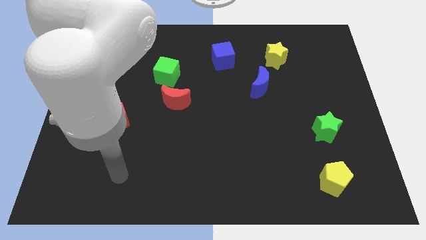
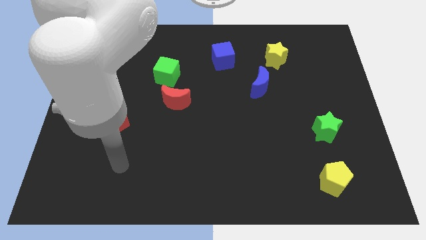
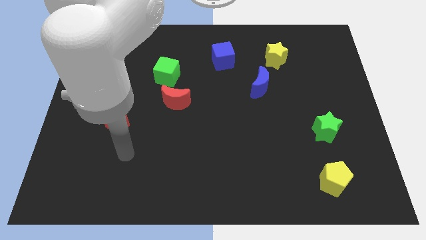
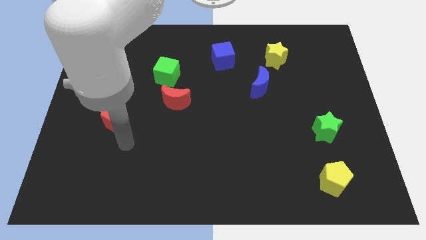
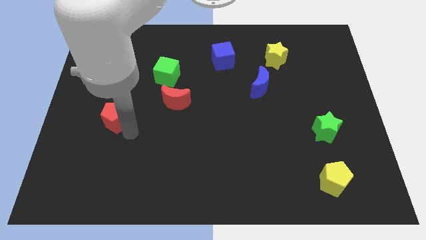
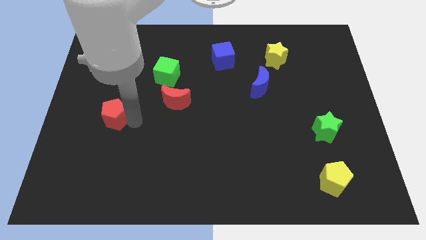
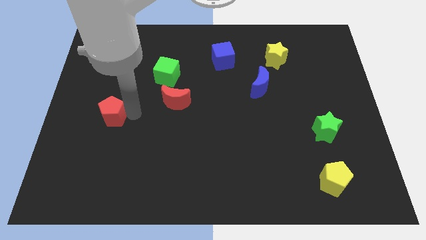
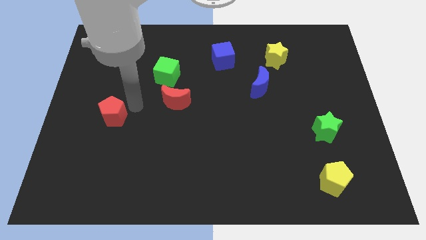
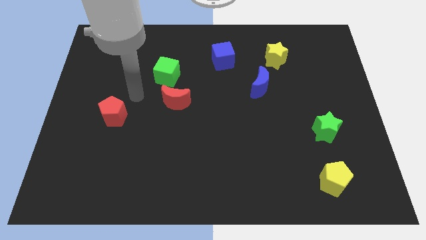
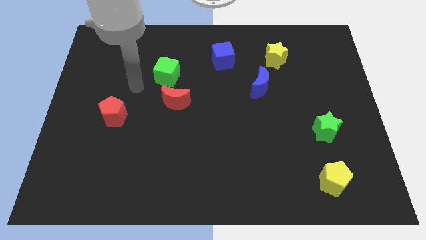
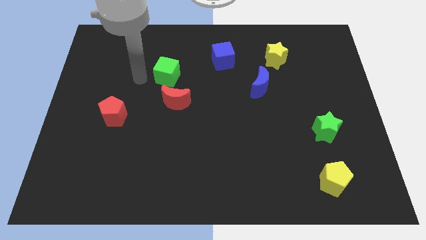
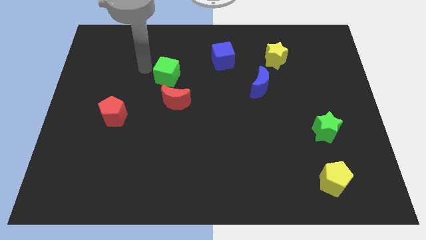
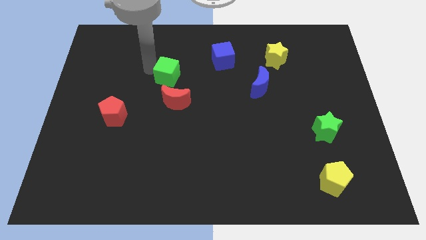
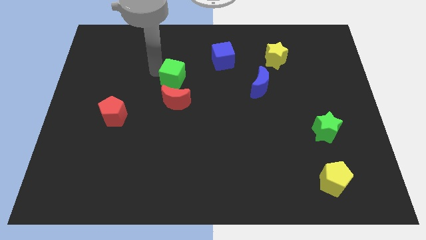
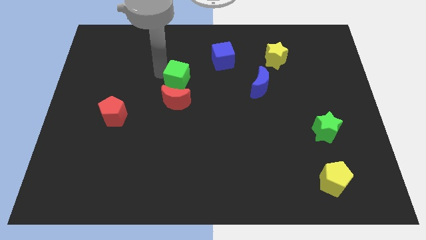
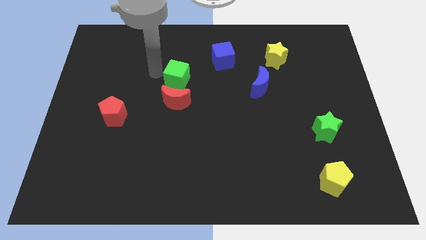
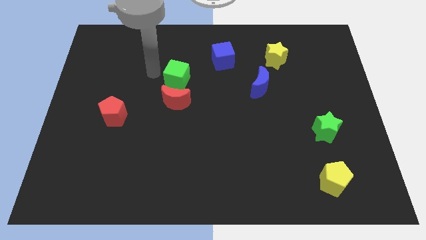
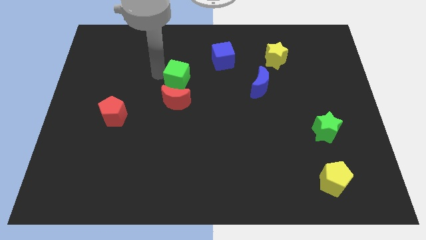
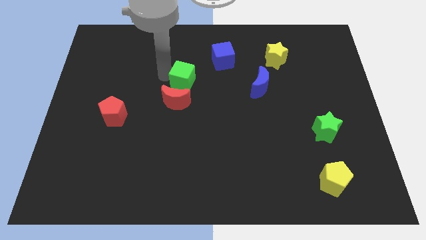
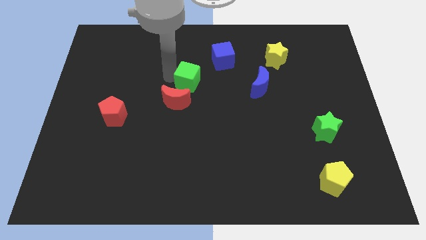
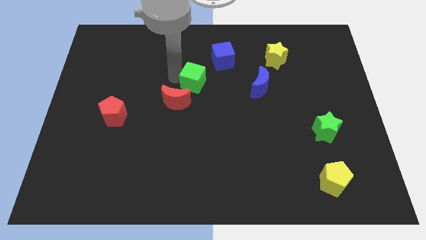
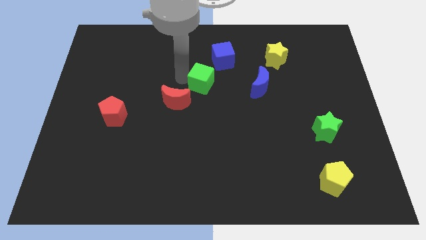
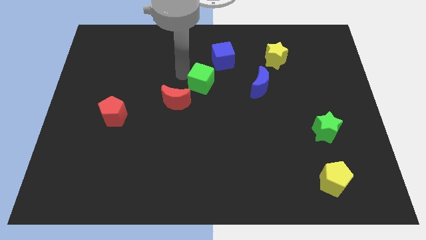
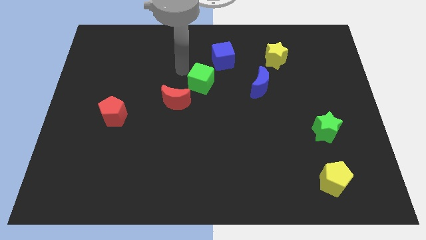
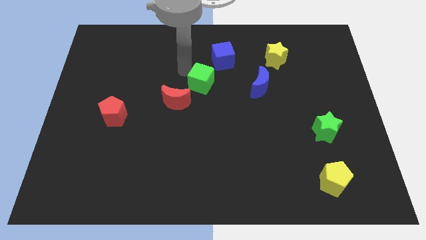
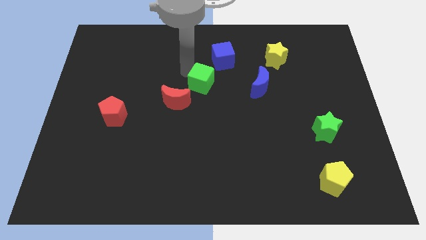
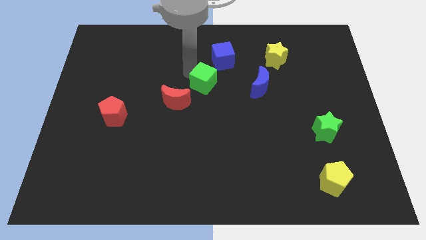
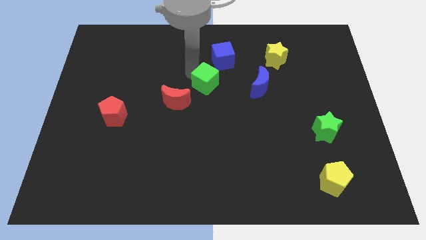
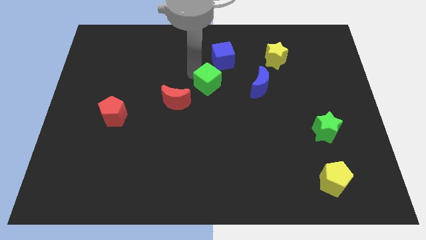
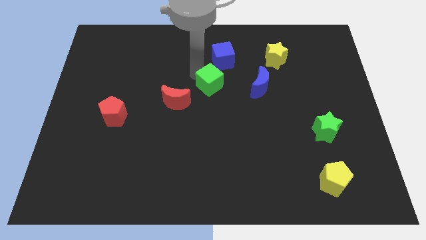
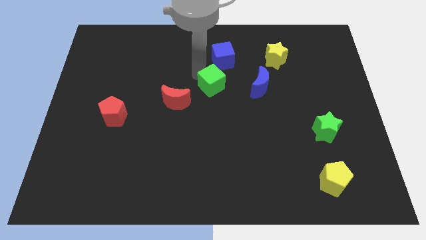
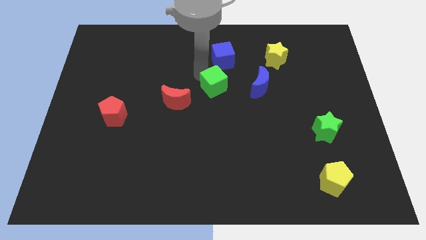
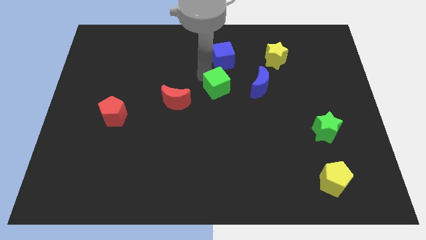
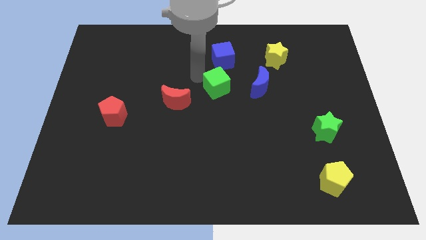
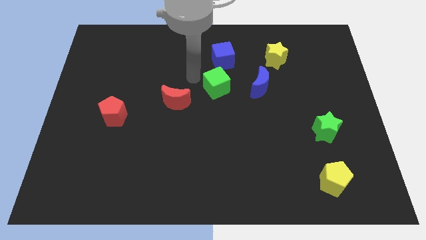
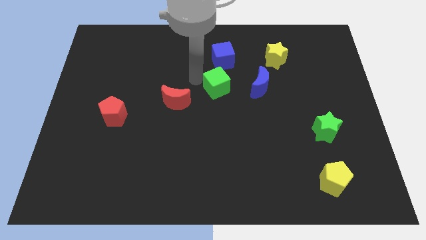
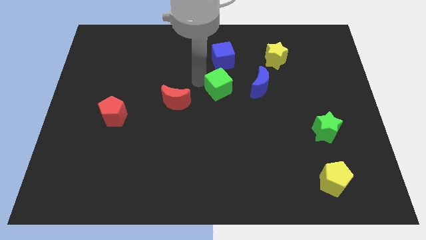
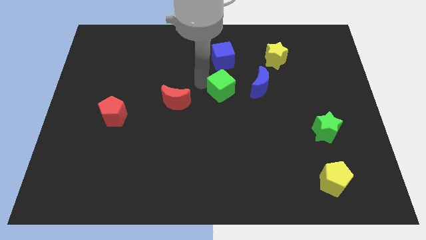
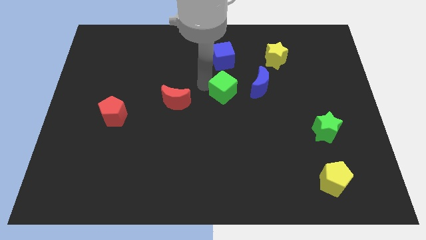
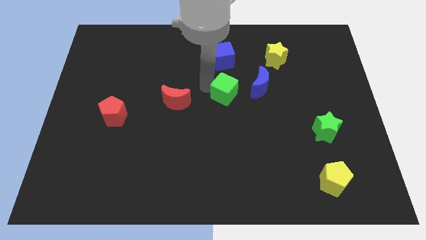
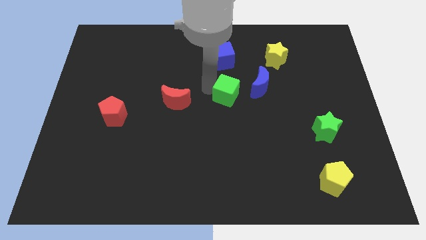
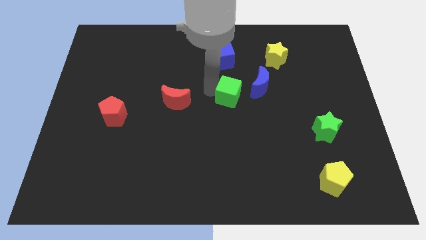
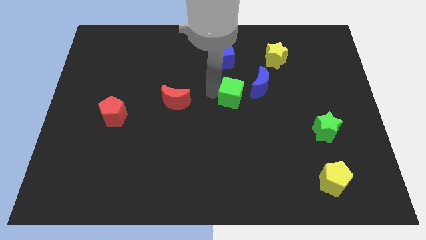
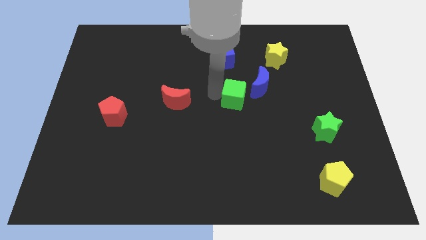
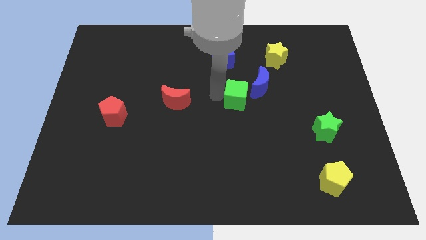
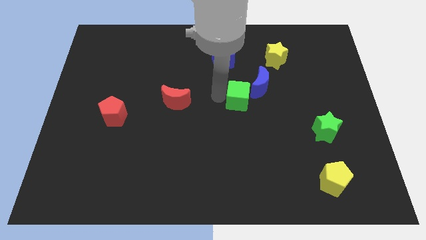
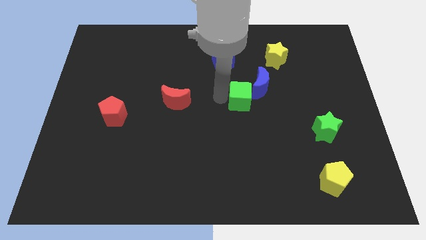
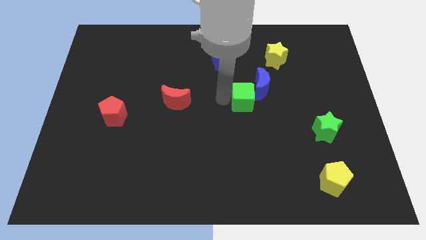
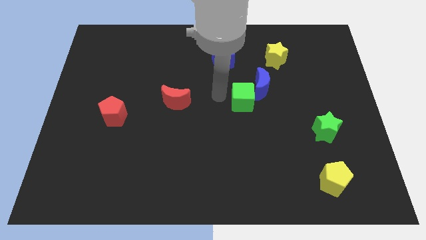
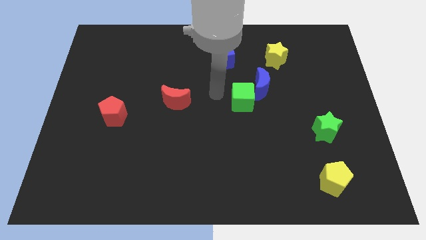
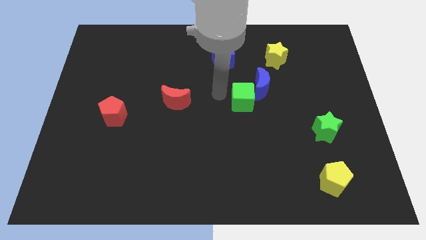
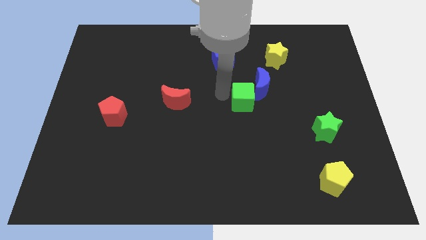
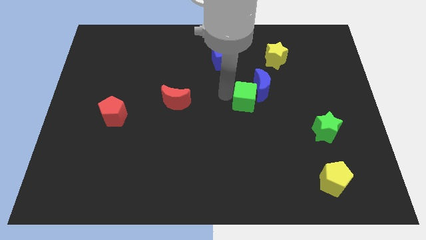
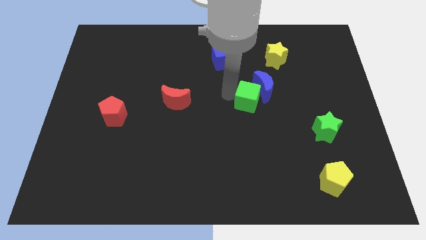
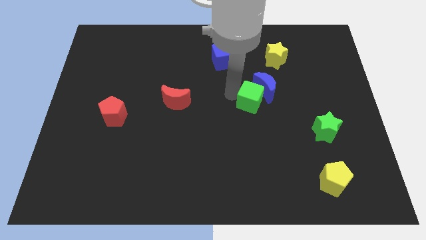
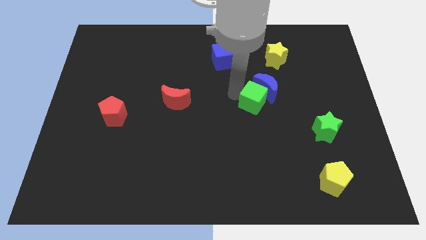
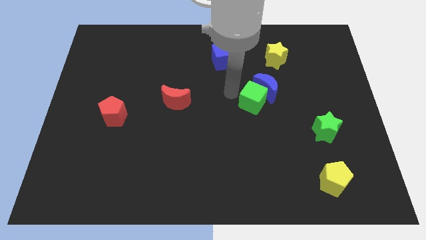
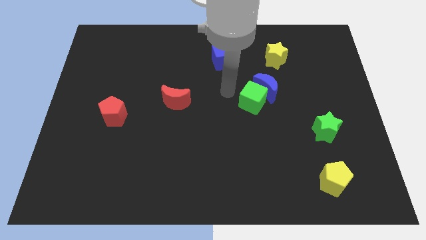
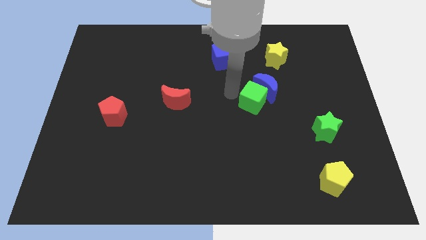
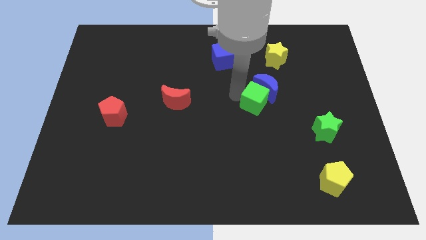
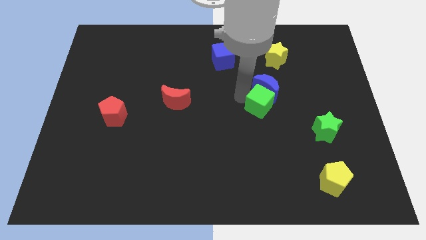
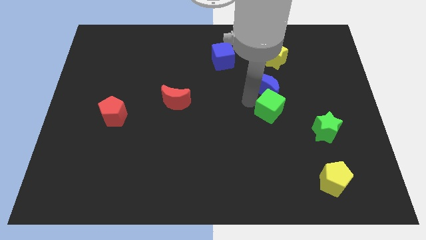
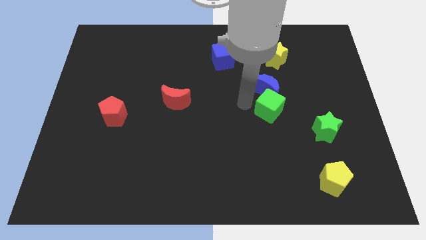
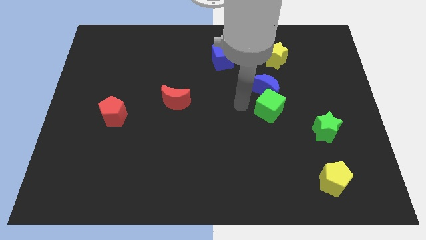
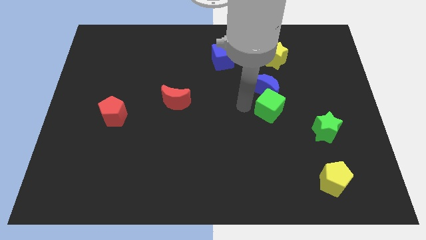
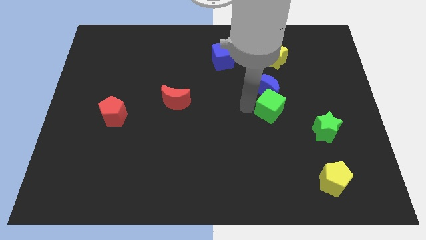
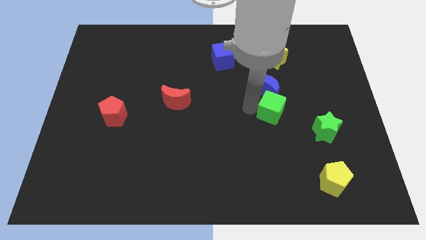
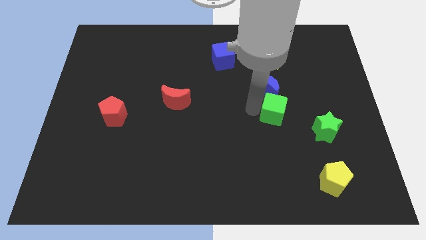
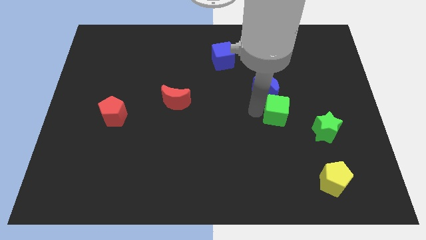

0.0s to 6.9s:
move the green cube to the top left of the green star
